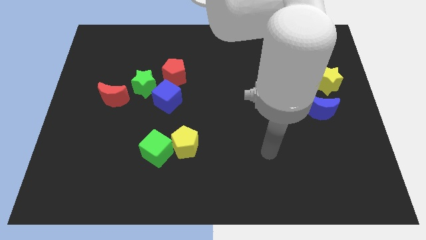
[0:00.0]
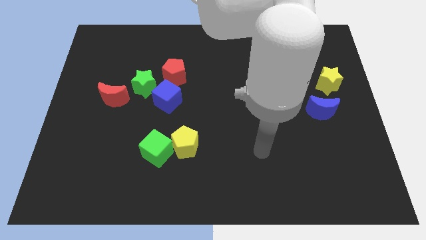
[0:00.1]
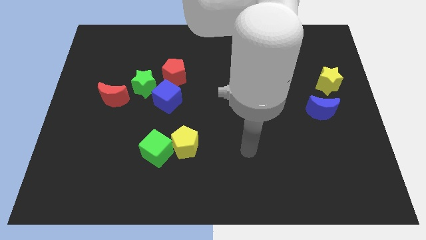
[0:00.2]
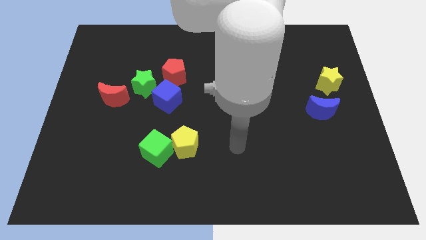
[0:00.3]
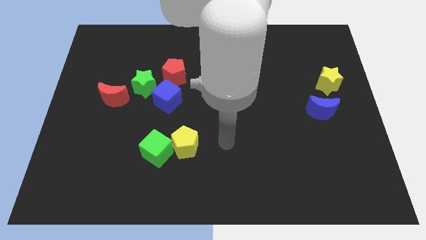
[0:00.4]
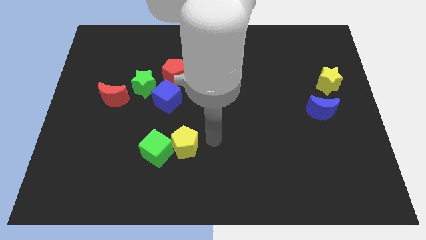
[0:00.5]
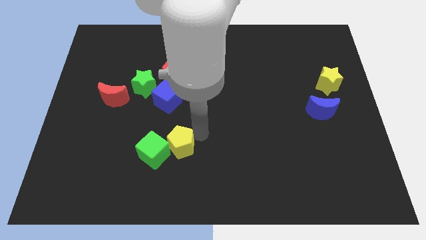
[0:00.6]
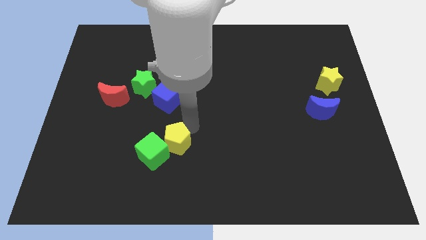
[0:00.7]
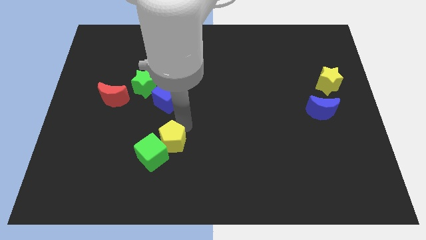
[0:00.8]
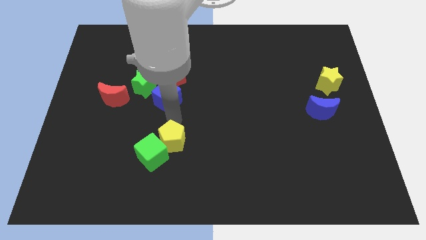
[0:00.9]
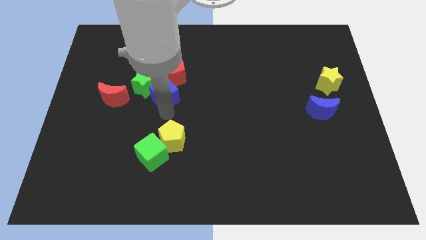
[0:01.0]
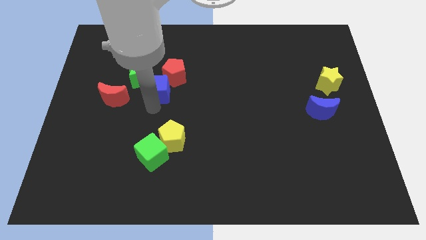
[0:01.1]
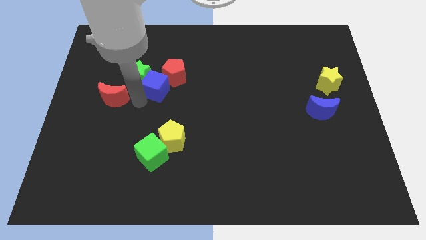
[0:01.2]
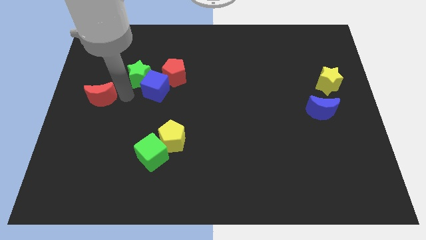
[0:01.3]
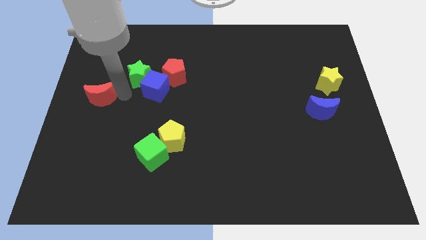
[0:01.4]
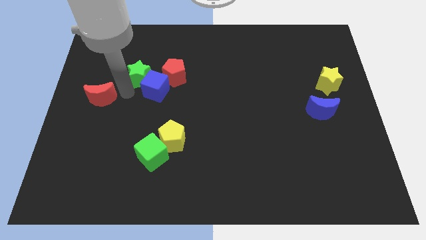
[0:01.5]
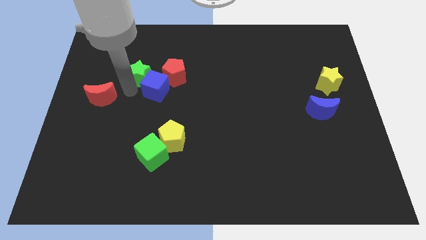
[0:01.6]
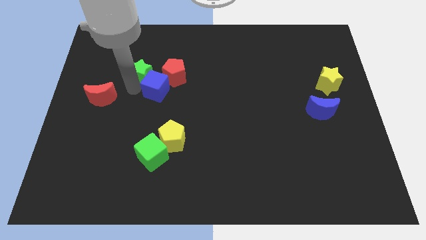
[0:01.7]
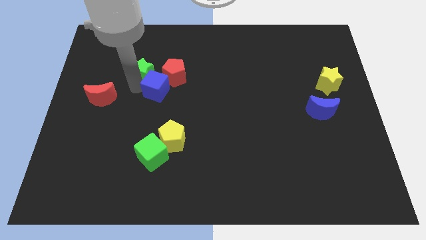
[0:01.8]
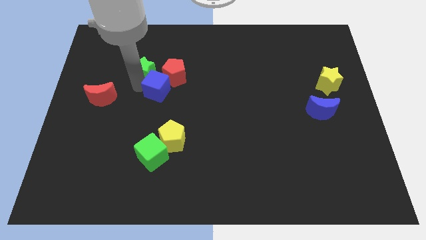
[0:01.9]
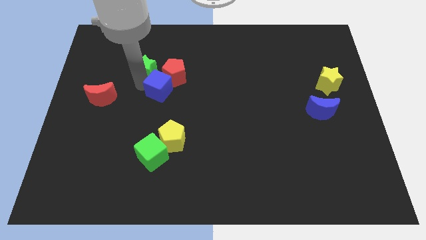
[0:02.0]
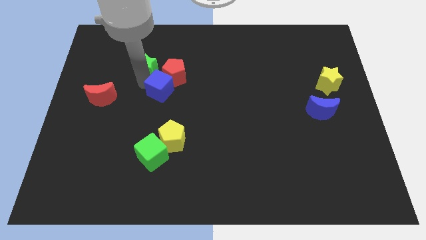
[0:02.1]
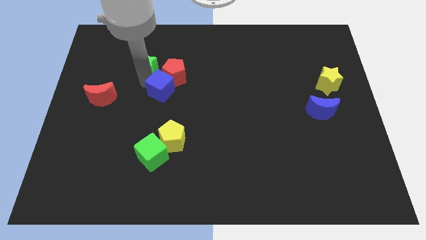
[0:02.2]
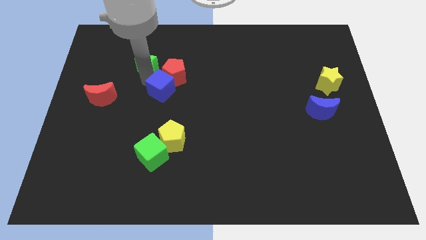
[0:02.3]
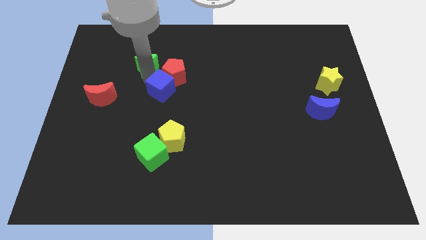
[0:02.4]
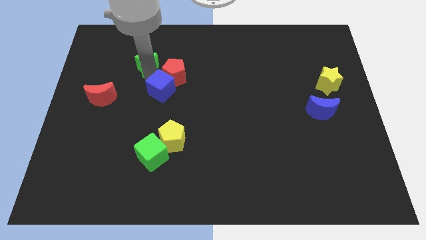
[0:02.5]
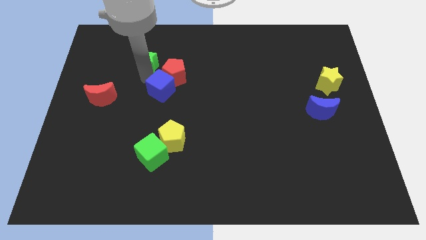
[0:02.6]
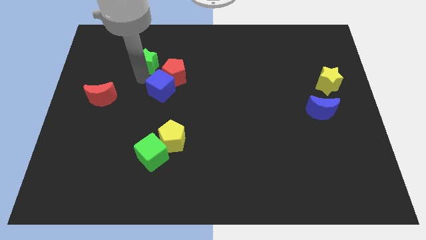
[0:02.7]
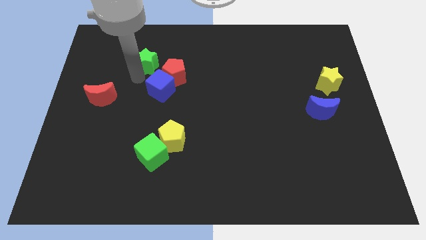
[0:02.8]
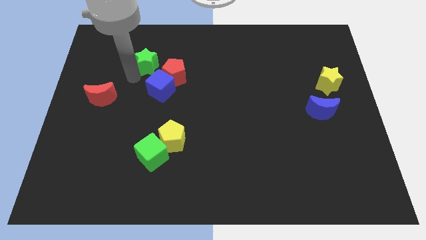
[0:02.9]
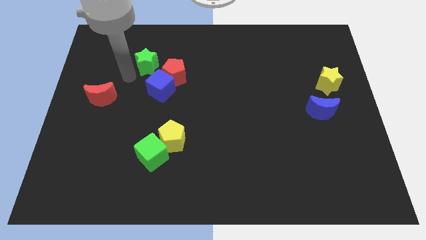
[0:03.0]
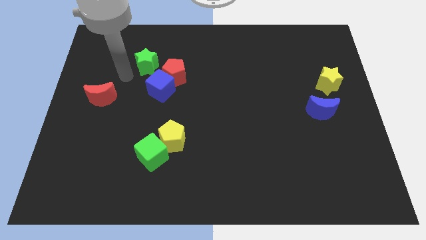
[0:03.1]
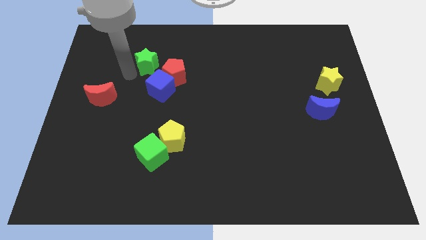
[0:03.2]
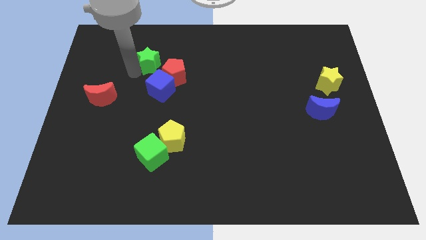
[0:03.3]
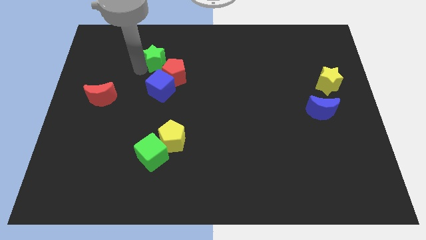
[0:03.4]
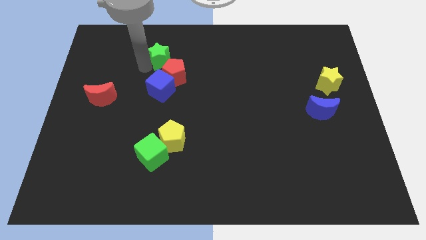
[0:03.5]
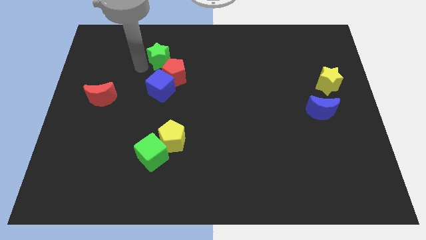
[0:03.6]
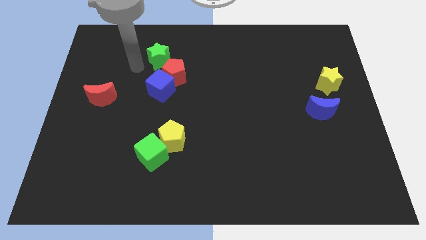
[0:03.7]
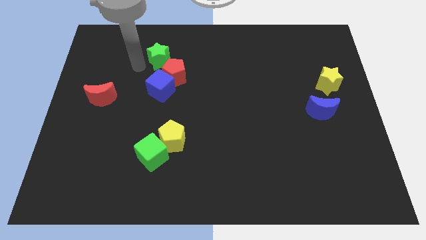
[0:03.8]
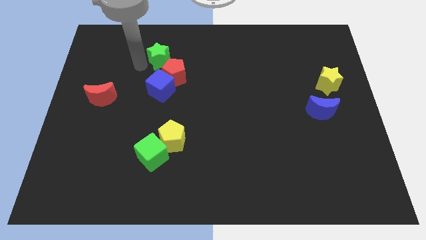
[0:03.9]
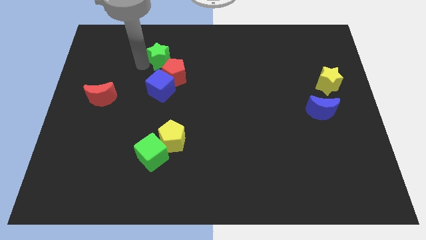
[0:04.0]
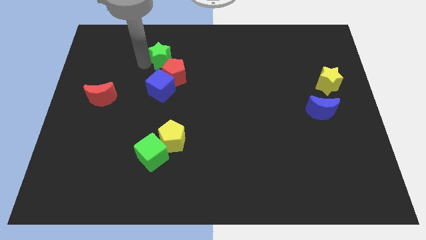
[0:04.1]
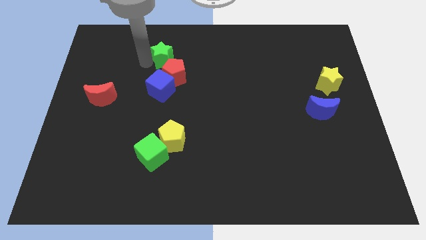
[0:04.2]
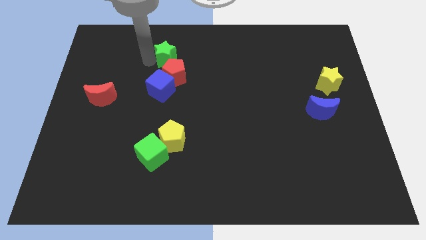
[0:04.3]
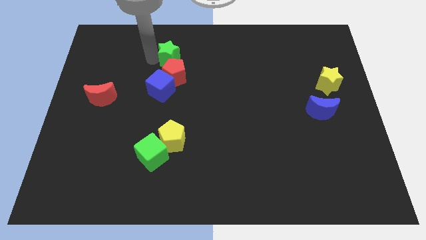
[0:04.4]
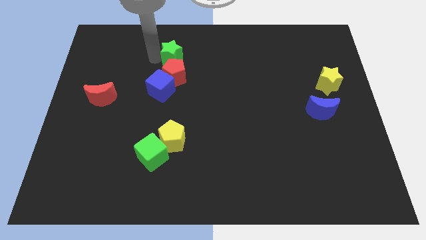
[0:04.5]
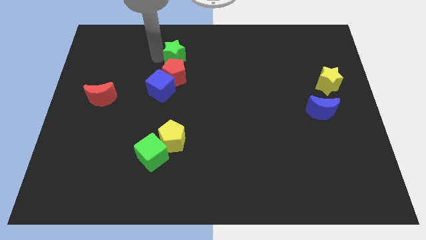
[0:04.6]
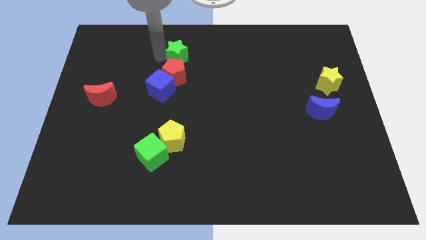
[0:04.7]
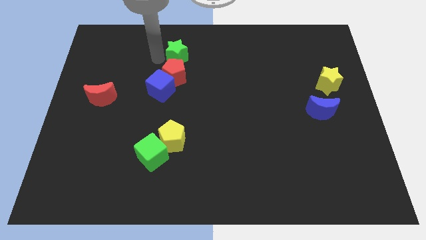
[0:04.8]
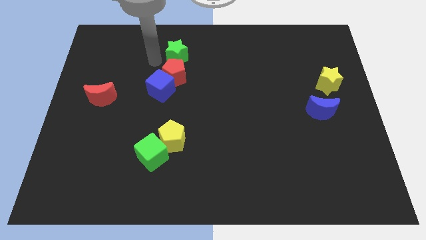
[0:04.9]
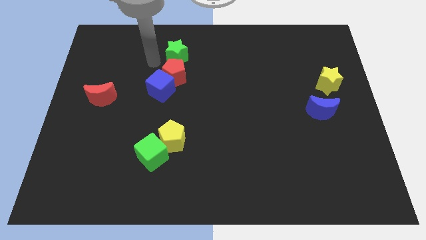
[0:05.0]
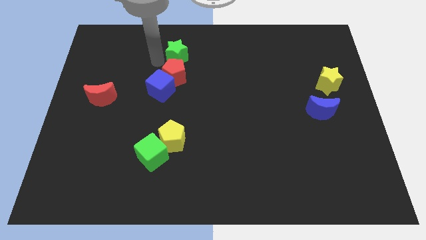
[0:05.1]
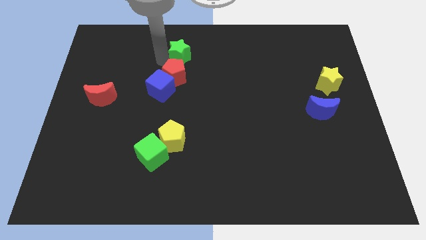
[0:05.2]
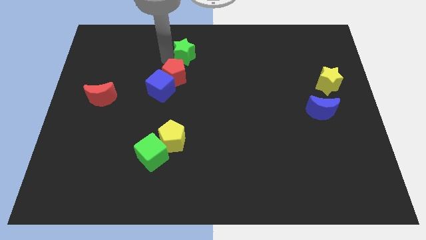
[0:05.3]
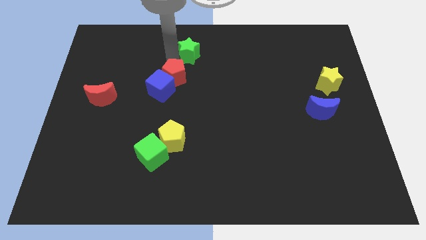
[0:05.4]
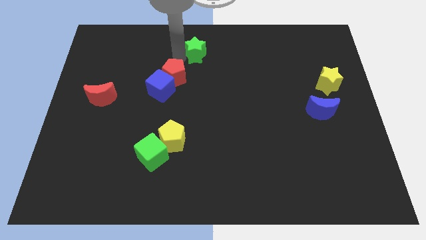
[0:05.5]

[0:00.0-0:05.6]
slide the green star to the top

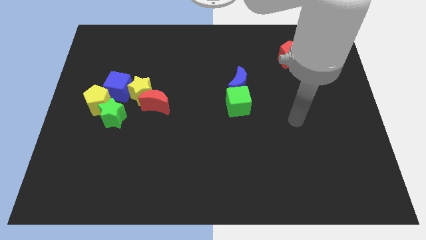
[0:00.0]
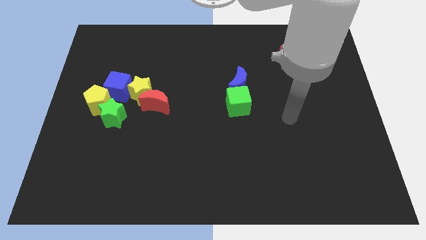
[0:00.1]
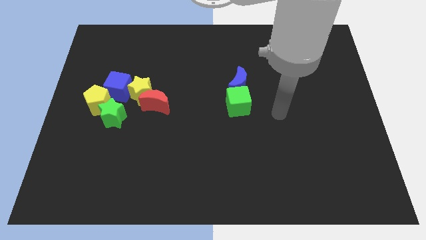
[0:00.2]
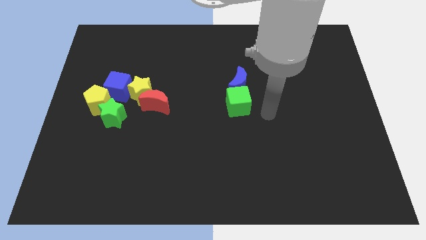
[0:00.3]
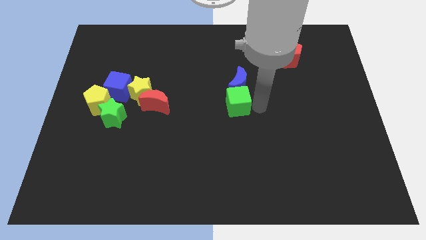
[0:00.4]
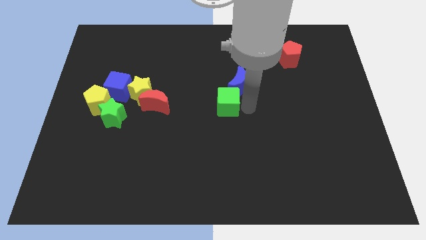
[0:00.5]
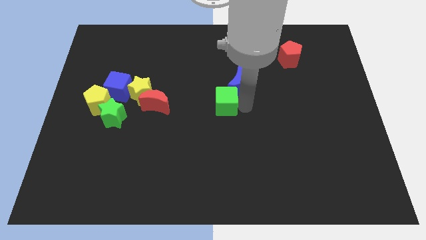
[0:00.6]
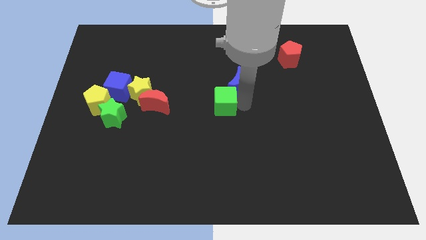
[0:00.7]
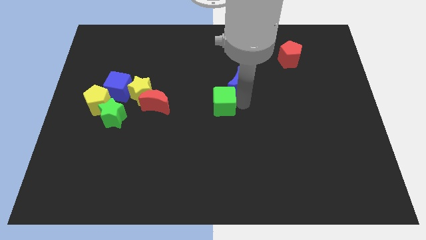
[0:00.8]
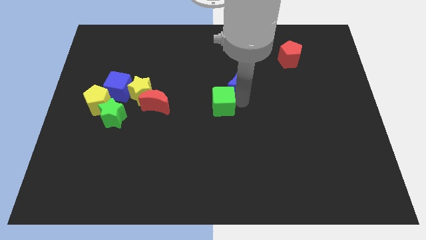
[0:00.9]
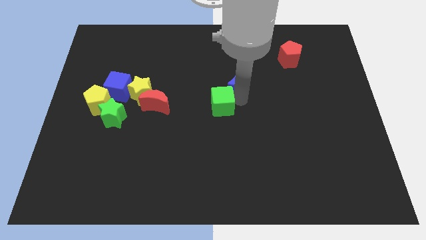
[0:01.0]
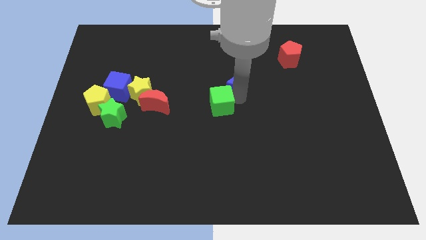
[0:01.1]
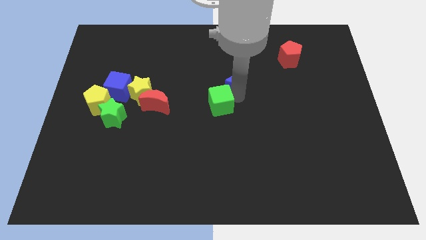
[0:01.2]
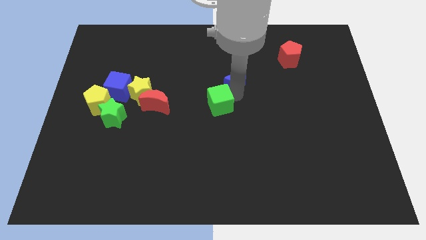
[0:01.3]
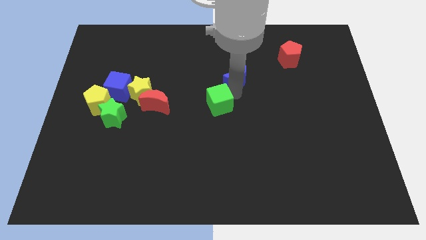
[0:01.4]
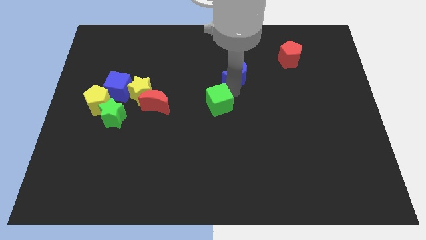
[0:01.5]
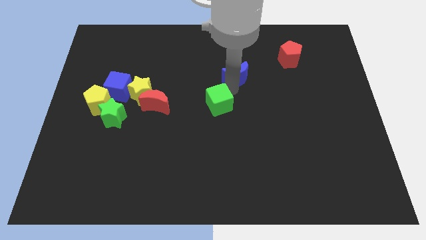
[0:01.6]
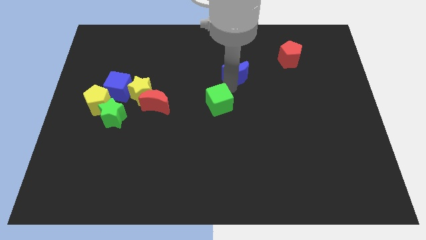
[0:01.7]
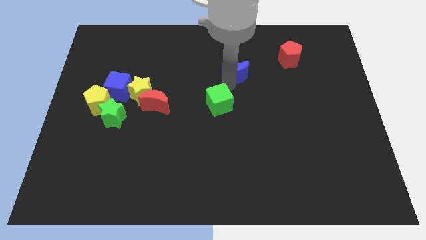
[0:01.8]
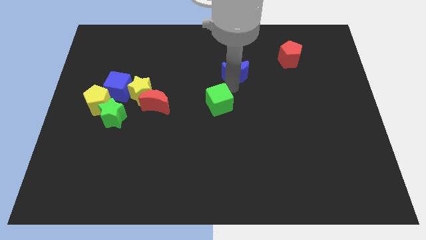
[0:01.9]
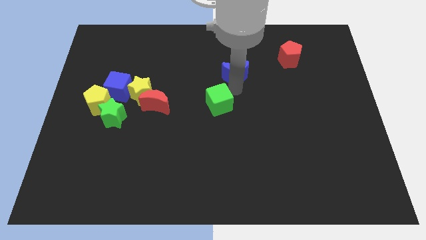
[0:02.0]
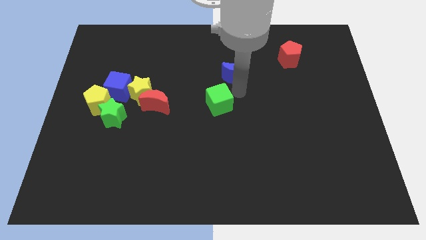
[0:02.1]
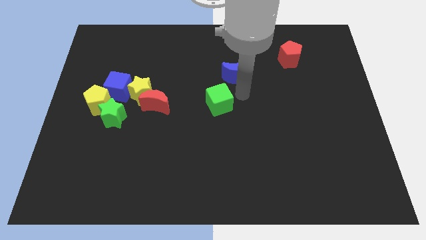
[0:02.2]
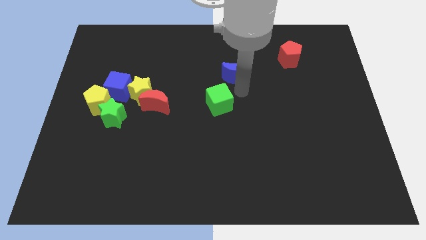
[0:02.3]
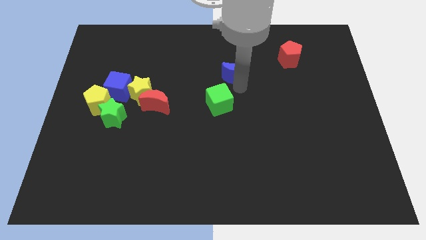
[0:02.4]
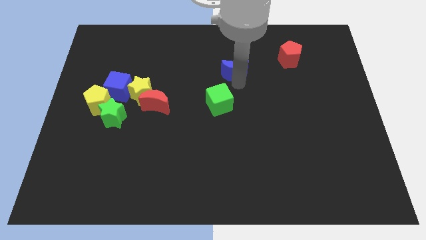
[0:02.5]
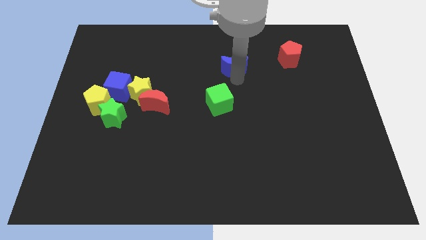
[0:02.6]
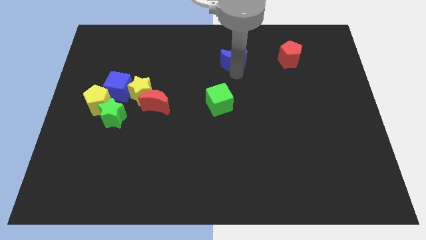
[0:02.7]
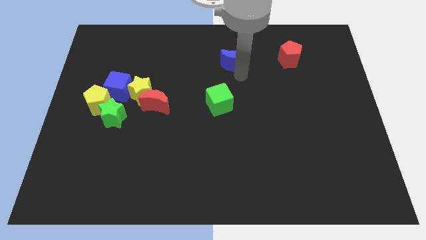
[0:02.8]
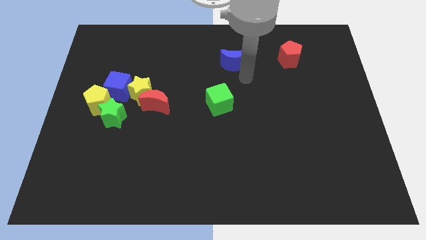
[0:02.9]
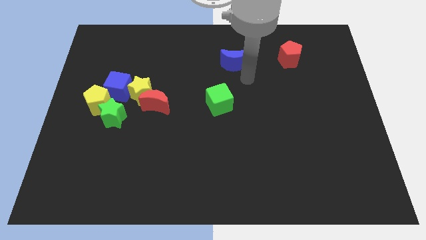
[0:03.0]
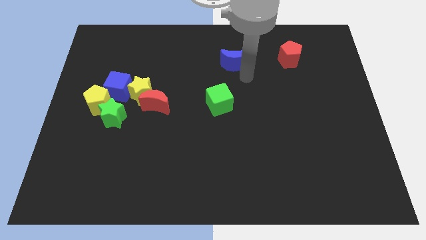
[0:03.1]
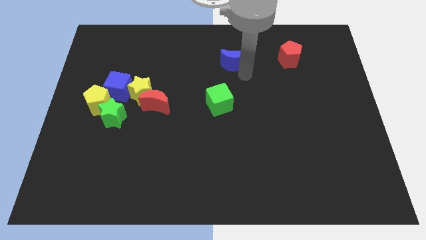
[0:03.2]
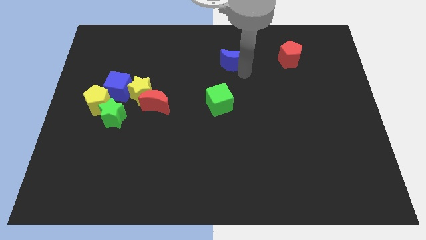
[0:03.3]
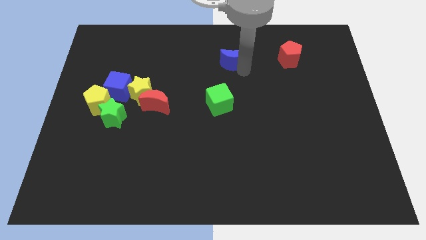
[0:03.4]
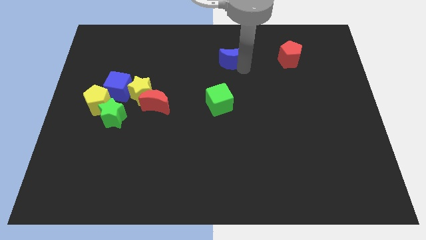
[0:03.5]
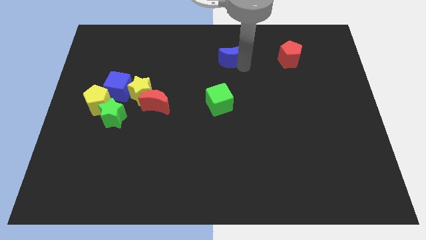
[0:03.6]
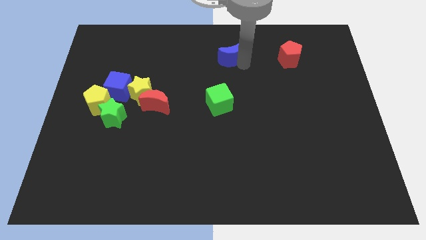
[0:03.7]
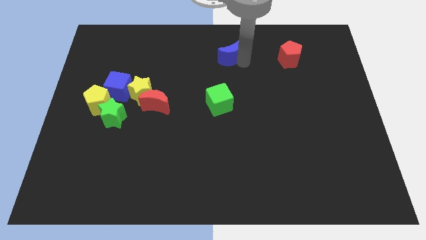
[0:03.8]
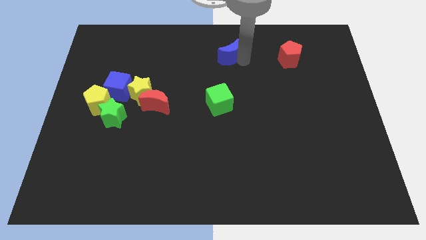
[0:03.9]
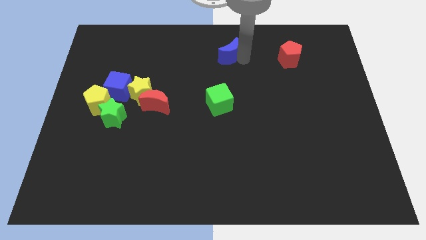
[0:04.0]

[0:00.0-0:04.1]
slide the blue moon to the top side
